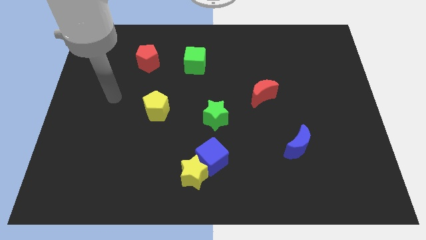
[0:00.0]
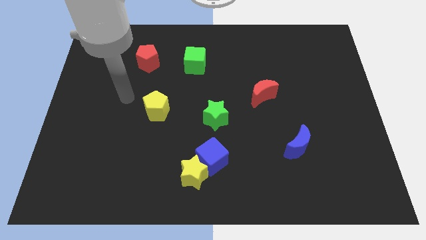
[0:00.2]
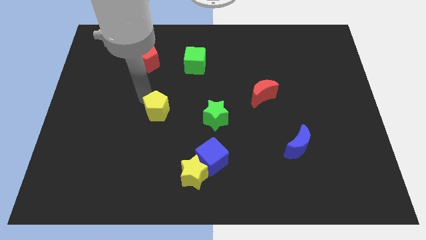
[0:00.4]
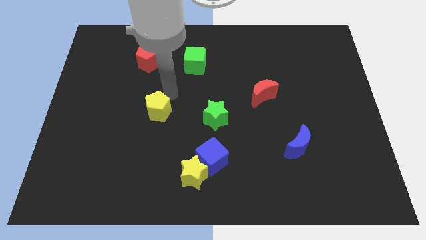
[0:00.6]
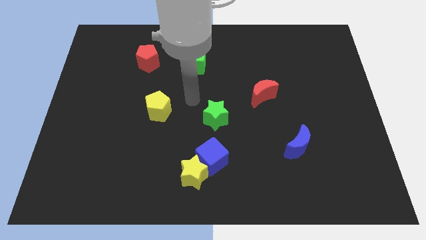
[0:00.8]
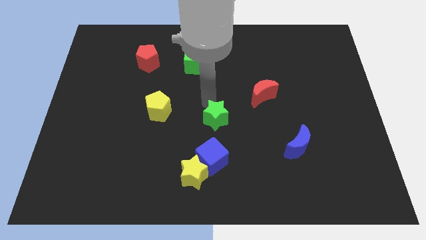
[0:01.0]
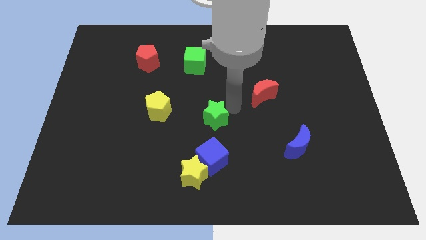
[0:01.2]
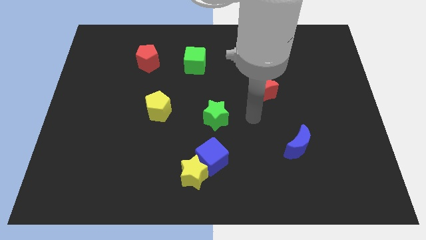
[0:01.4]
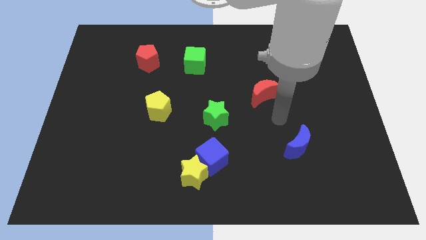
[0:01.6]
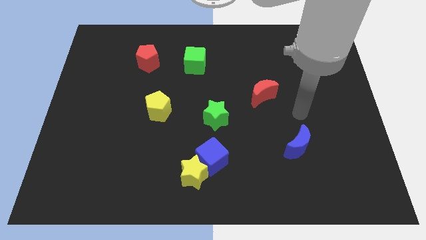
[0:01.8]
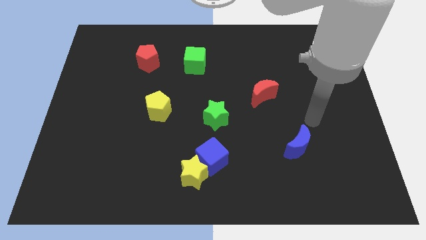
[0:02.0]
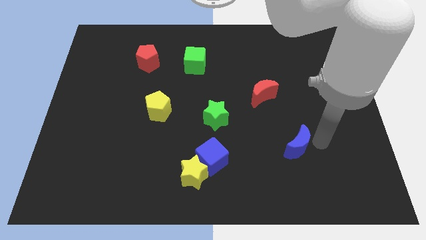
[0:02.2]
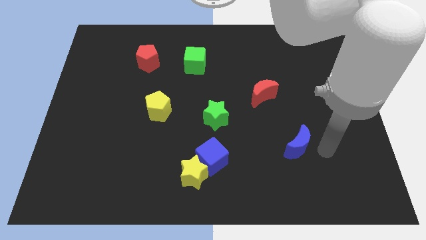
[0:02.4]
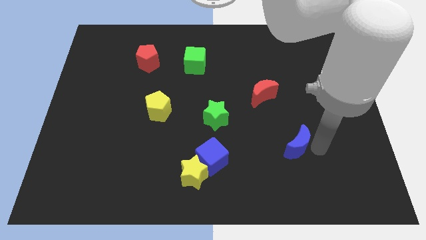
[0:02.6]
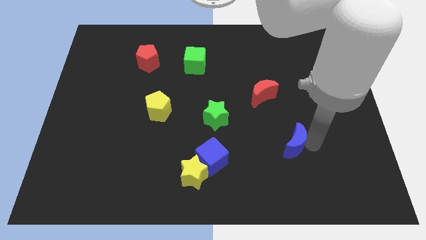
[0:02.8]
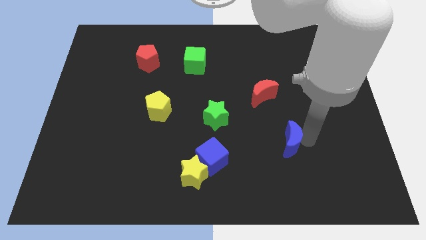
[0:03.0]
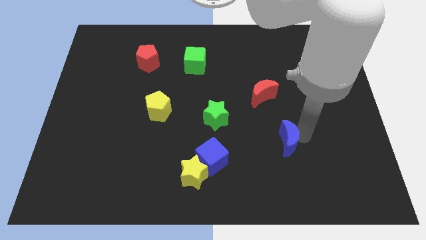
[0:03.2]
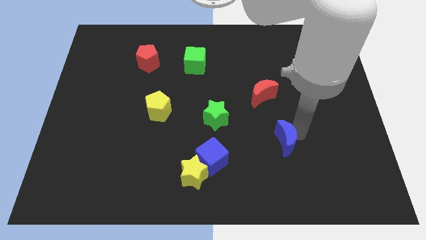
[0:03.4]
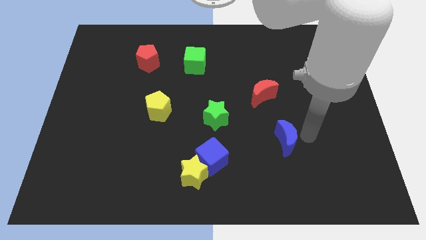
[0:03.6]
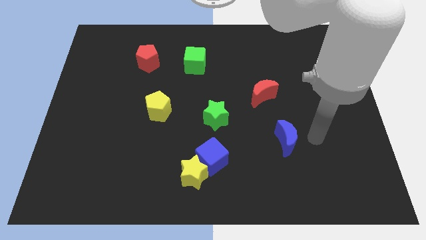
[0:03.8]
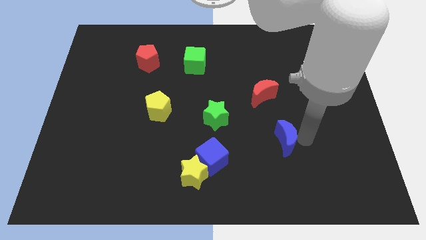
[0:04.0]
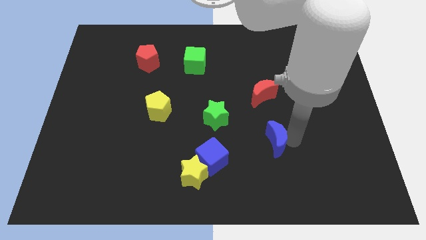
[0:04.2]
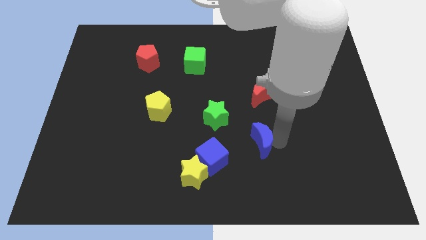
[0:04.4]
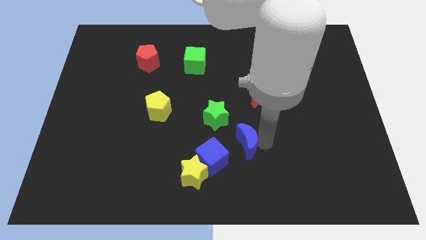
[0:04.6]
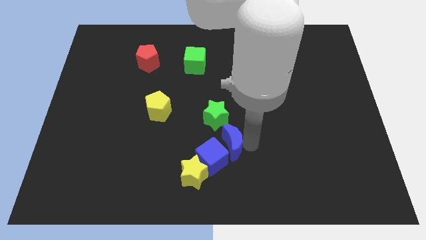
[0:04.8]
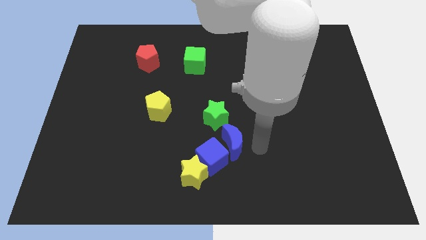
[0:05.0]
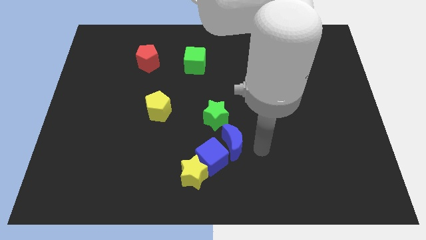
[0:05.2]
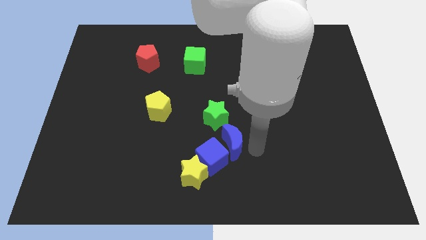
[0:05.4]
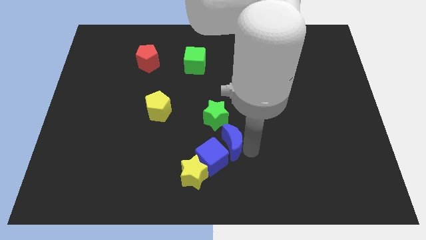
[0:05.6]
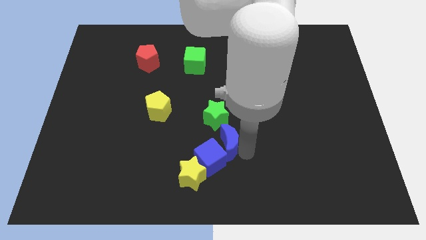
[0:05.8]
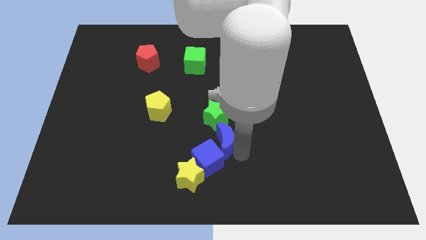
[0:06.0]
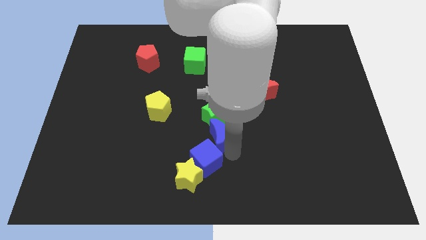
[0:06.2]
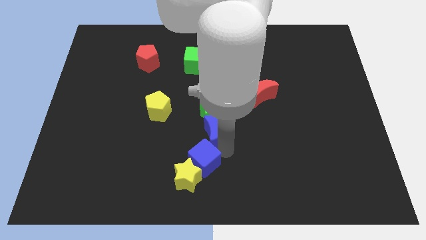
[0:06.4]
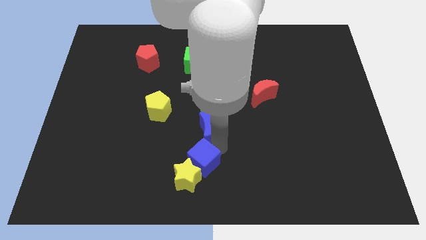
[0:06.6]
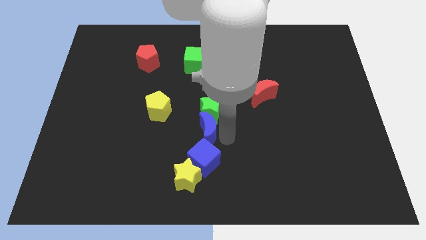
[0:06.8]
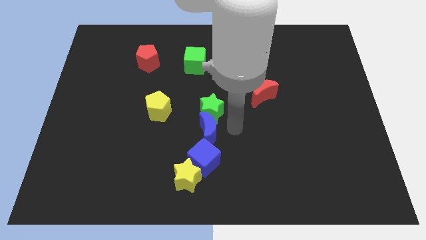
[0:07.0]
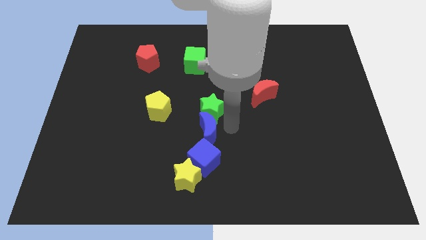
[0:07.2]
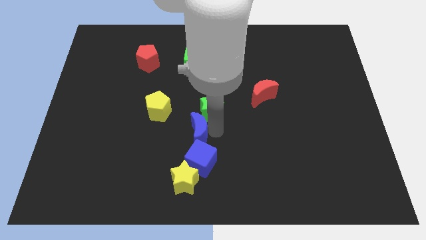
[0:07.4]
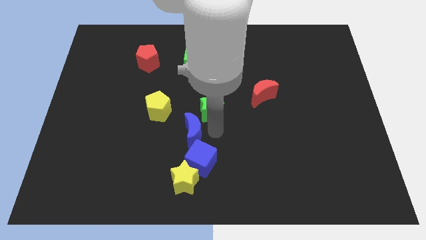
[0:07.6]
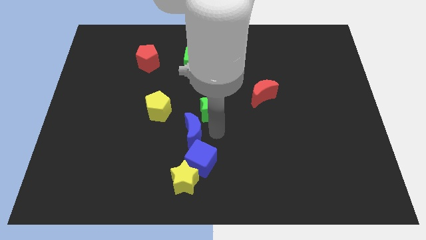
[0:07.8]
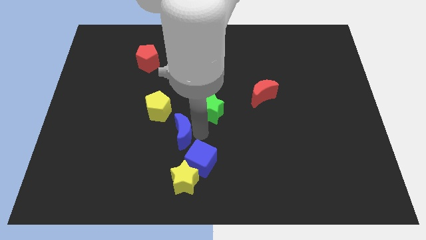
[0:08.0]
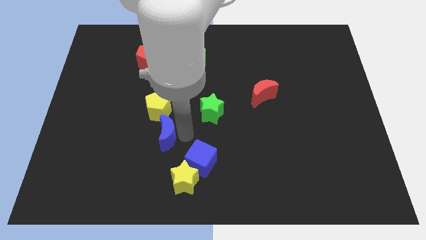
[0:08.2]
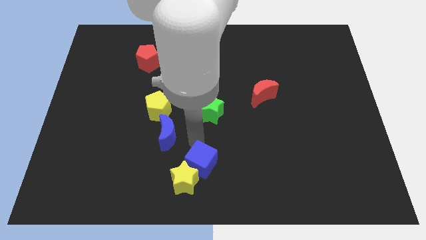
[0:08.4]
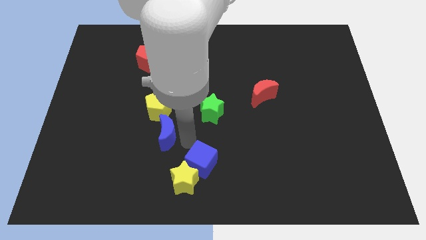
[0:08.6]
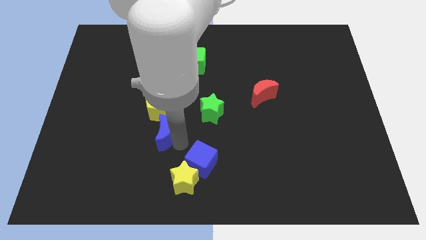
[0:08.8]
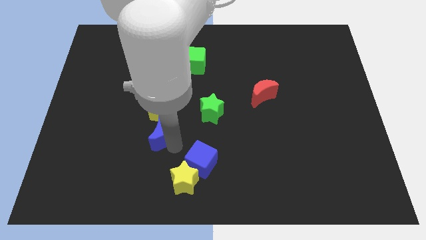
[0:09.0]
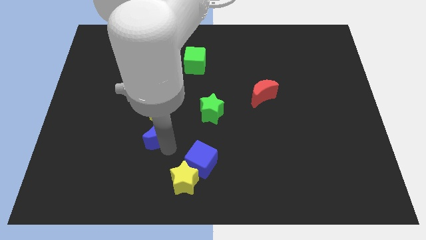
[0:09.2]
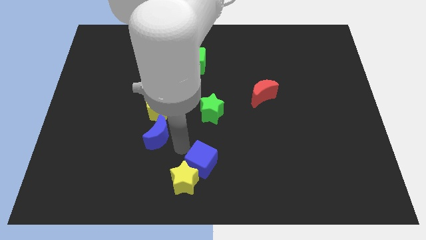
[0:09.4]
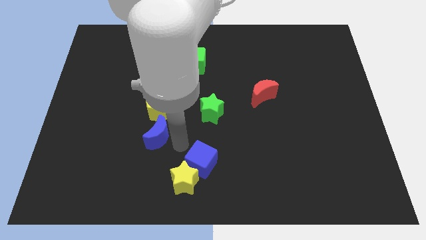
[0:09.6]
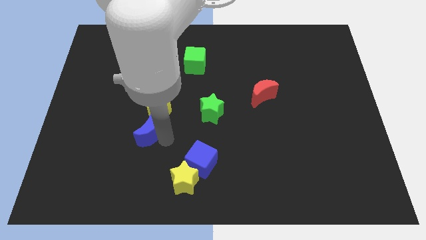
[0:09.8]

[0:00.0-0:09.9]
slide the blue moon to the bottom left of the yellow pentagon

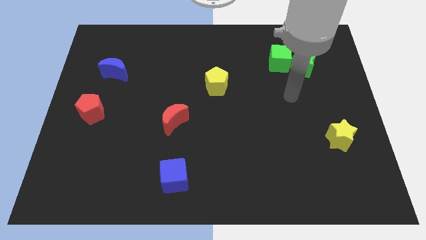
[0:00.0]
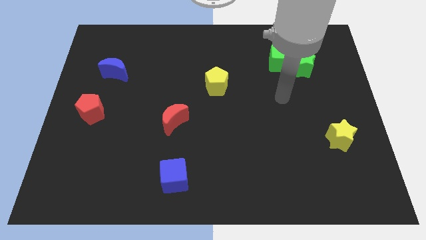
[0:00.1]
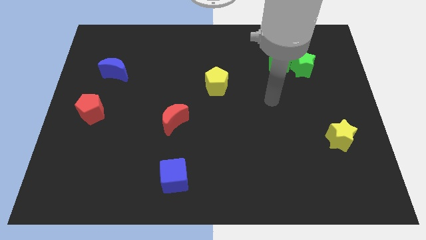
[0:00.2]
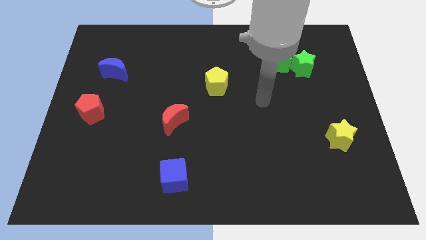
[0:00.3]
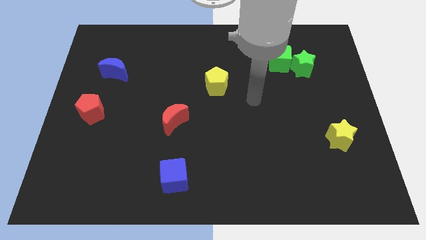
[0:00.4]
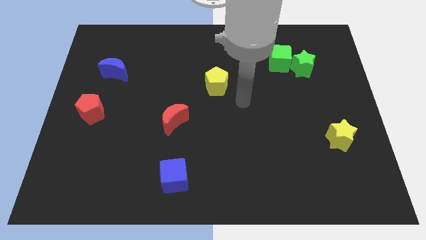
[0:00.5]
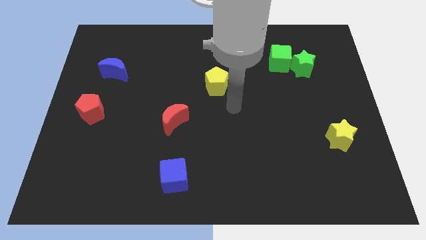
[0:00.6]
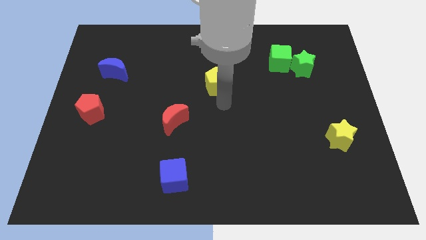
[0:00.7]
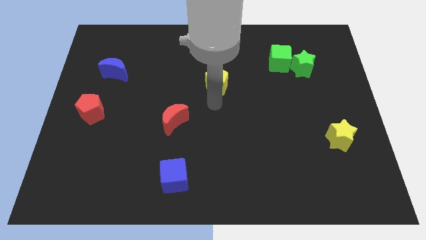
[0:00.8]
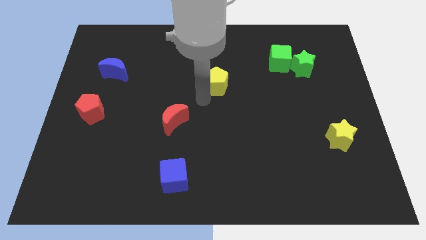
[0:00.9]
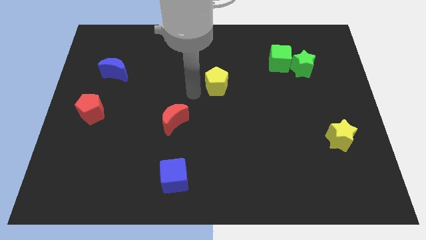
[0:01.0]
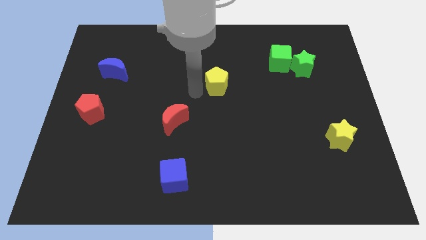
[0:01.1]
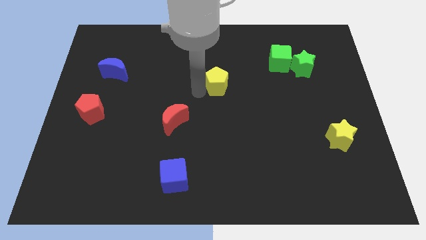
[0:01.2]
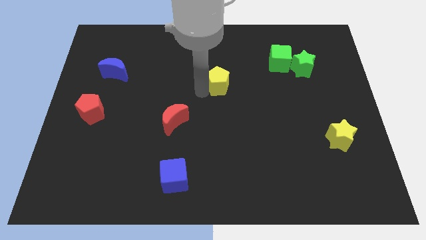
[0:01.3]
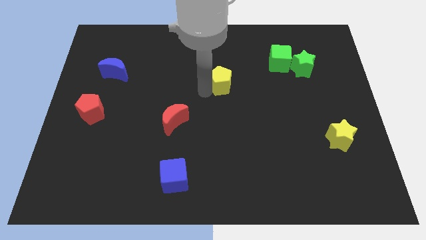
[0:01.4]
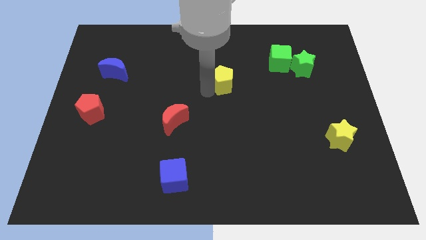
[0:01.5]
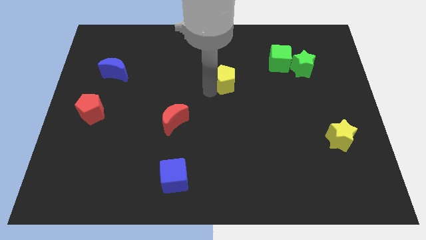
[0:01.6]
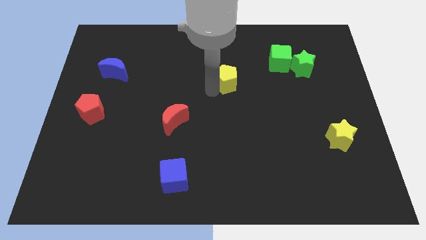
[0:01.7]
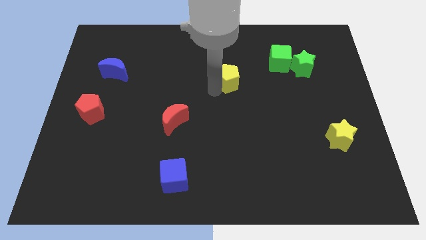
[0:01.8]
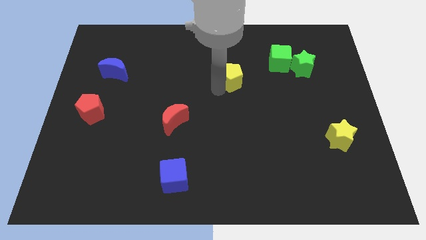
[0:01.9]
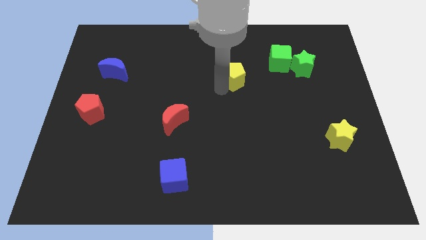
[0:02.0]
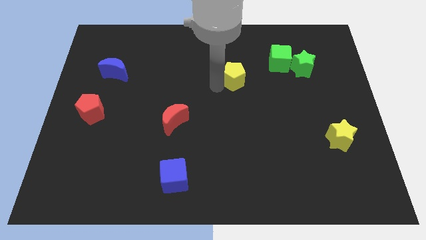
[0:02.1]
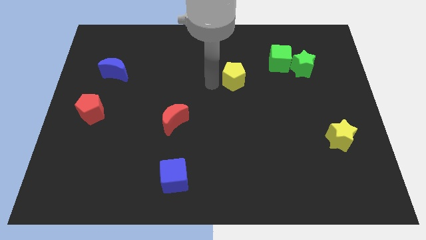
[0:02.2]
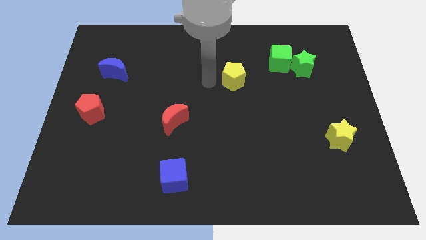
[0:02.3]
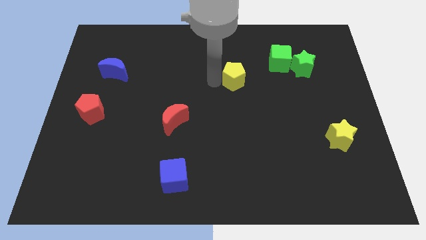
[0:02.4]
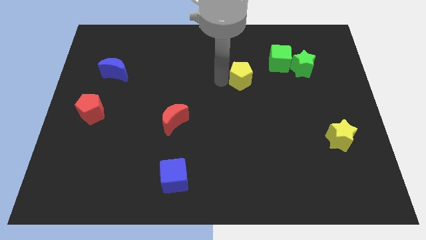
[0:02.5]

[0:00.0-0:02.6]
put the yellow pentagon diagonally down and to the left of the green cube

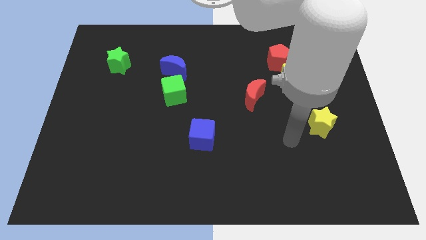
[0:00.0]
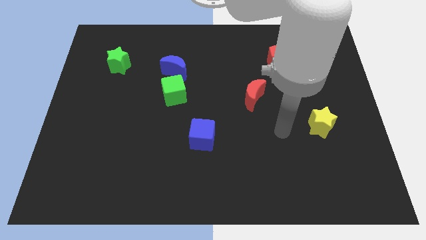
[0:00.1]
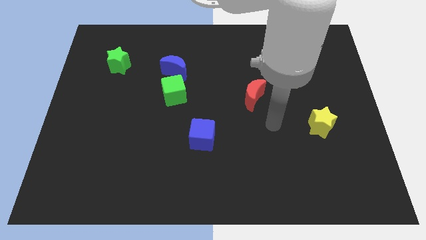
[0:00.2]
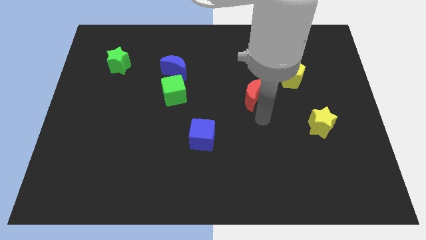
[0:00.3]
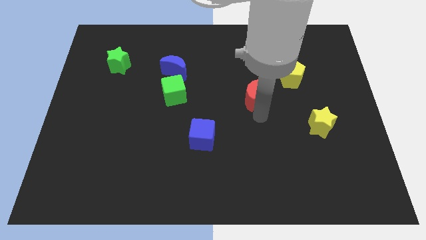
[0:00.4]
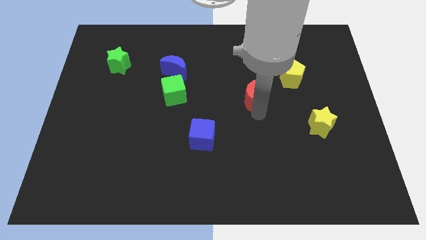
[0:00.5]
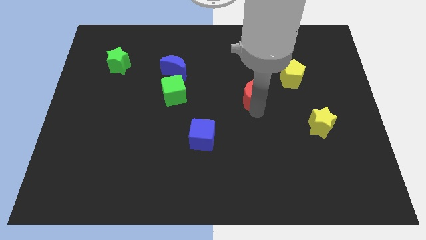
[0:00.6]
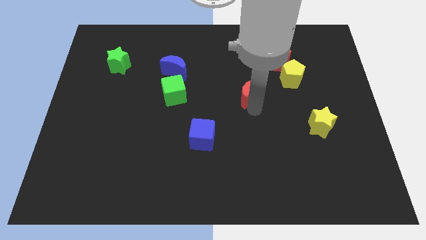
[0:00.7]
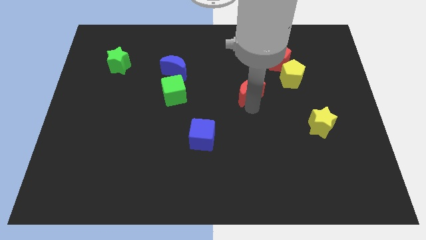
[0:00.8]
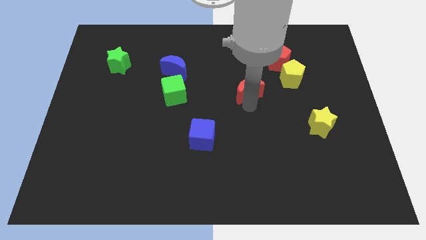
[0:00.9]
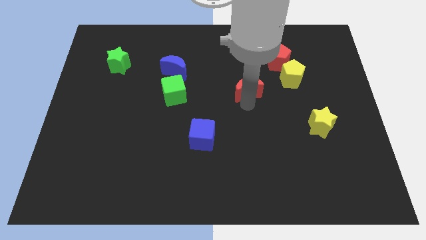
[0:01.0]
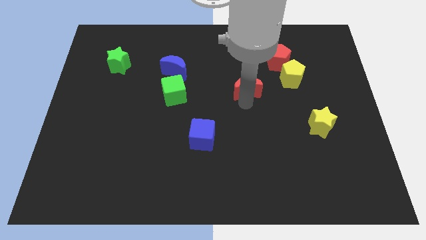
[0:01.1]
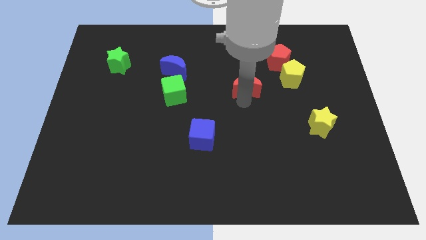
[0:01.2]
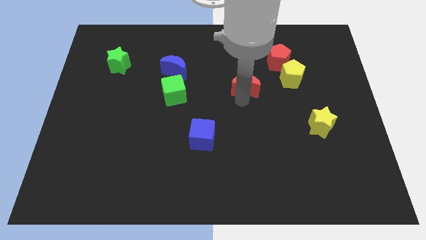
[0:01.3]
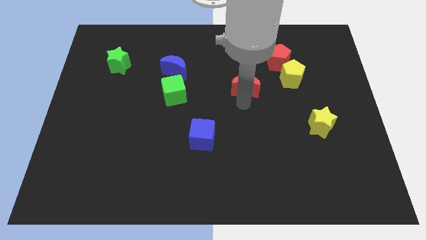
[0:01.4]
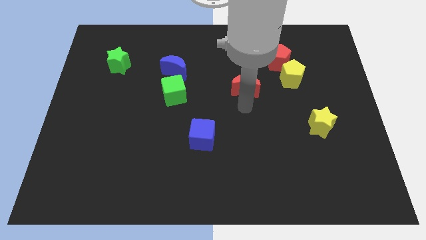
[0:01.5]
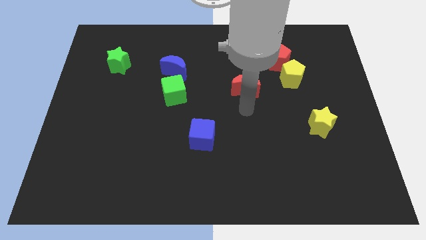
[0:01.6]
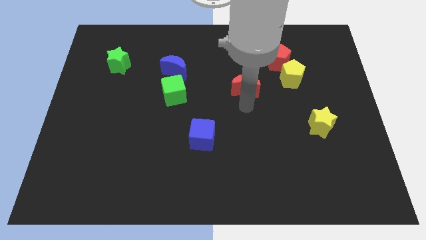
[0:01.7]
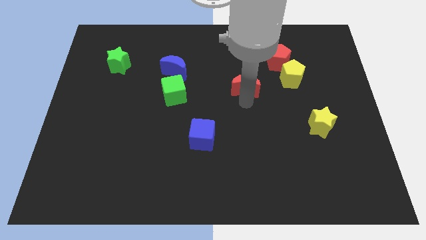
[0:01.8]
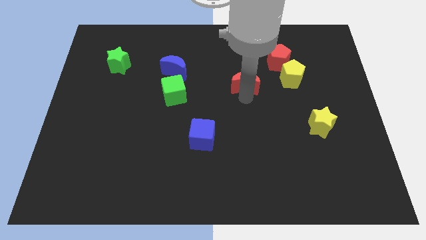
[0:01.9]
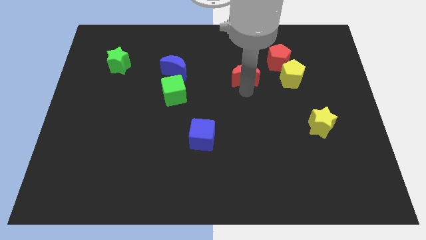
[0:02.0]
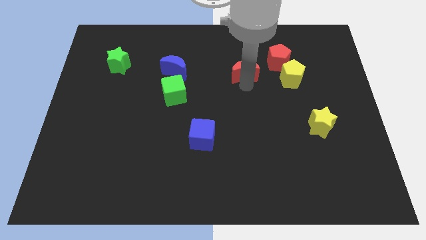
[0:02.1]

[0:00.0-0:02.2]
push the red moon to the left side of the red pentagon
